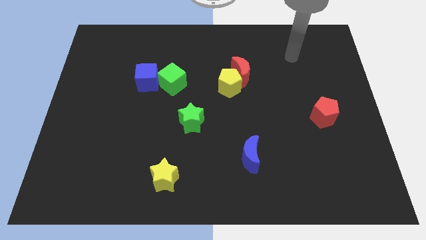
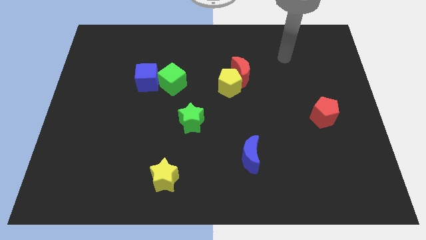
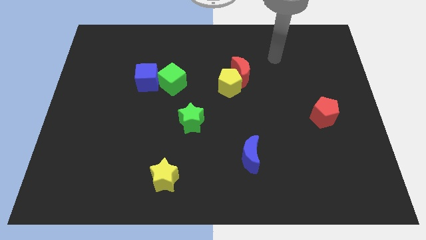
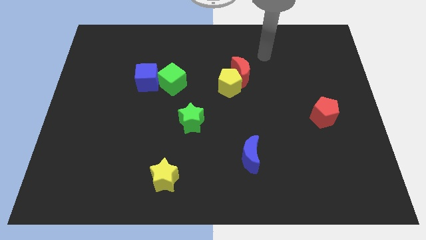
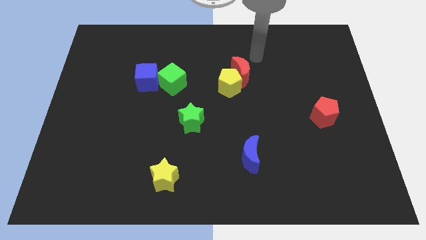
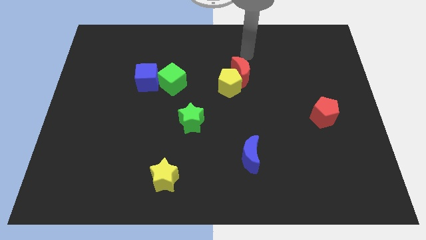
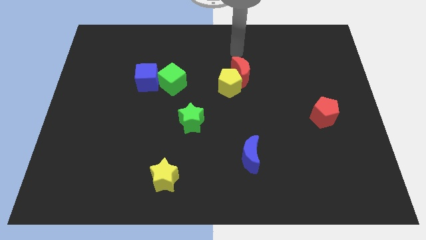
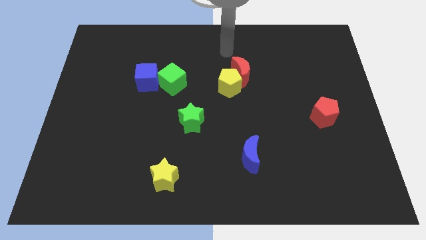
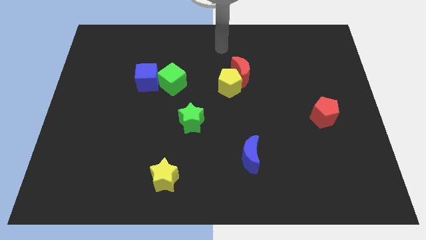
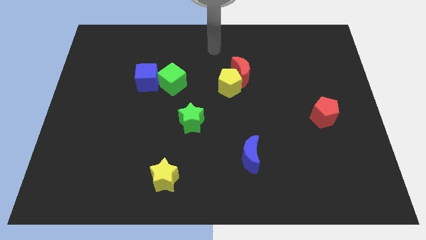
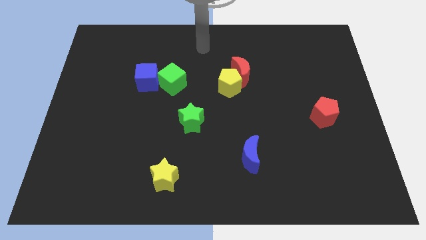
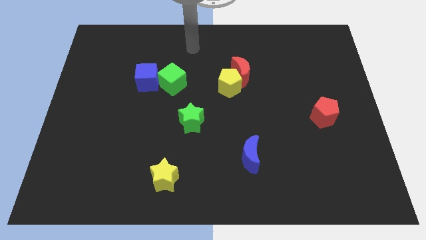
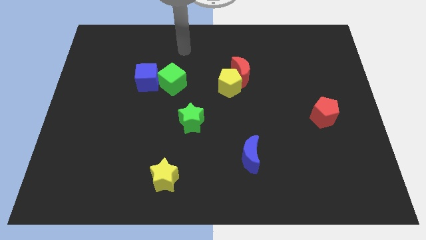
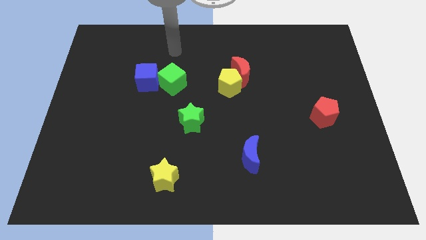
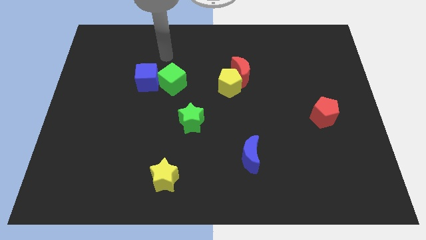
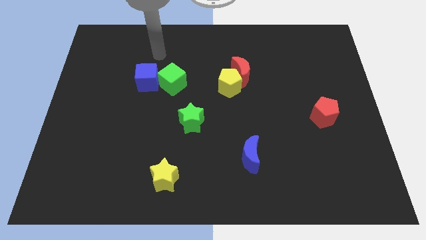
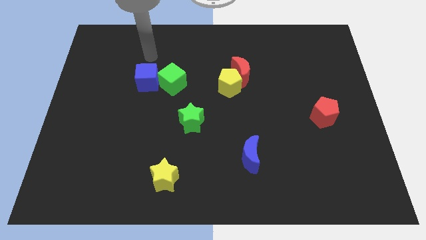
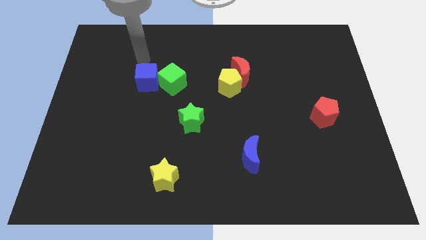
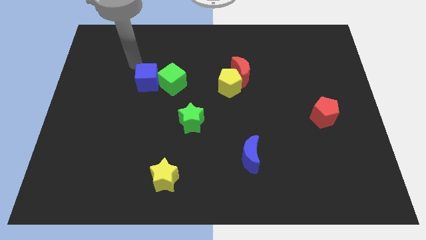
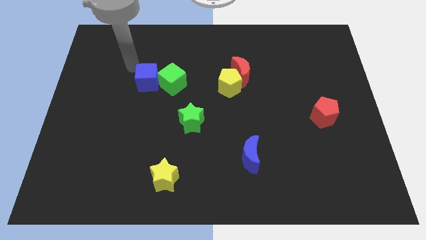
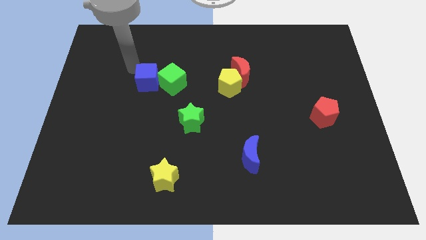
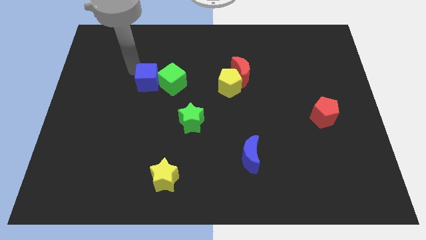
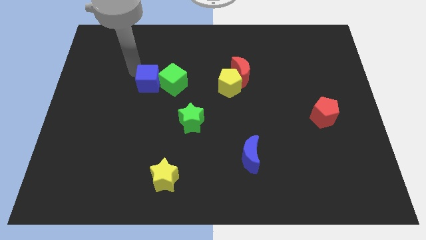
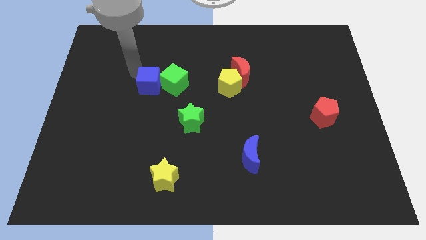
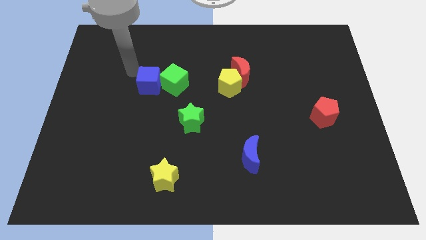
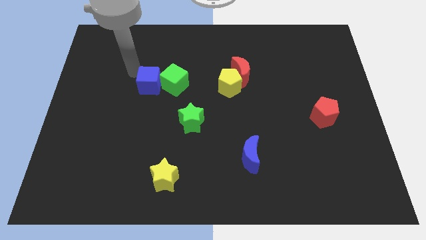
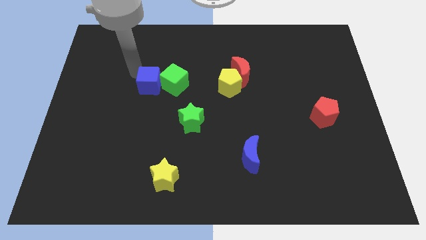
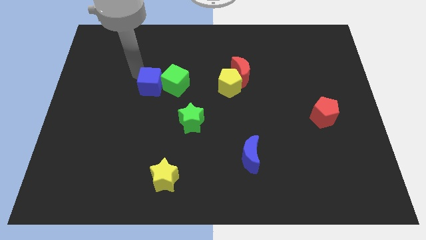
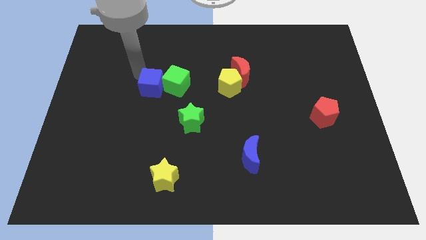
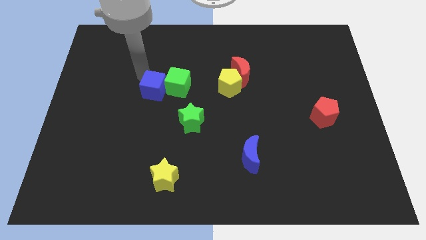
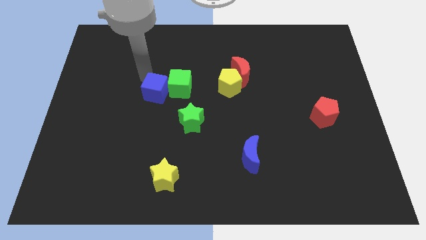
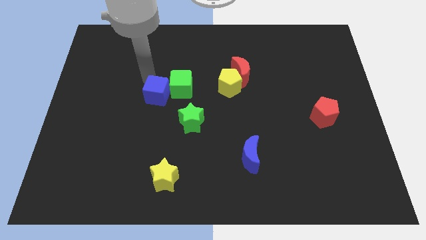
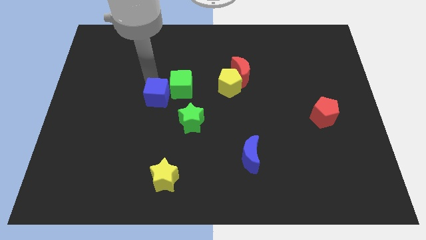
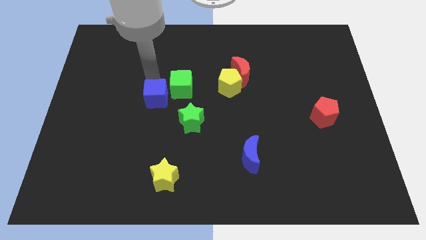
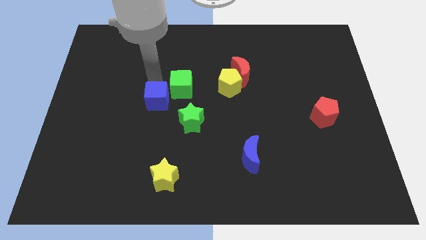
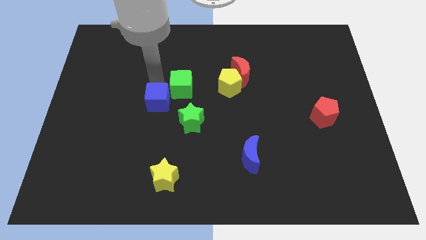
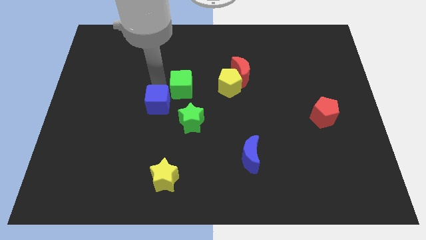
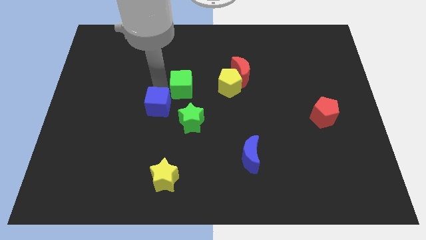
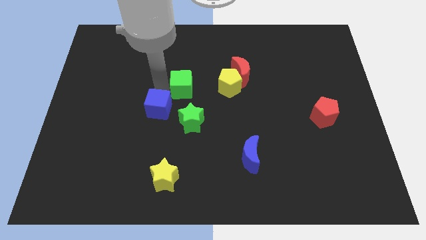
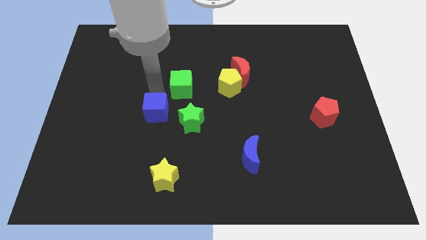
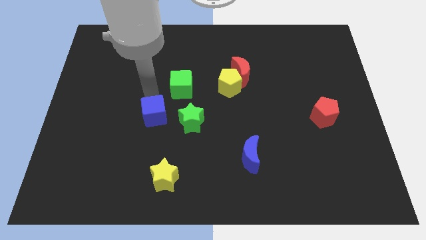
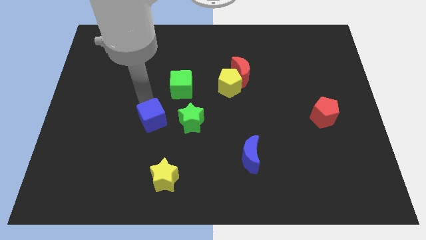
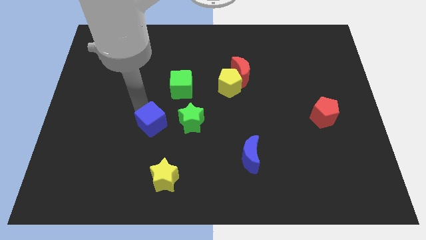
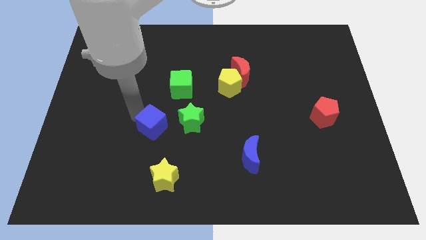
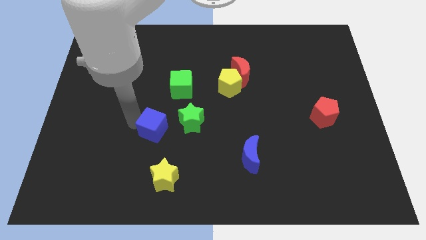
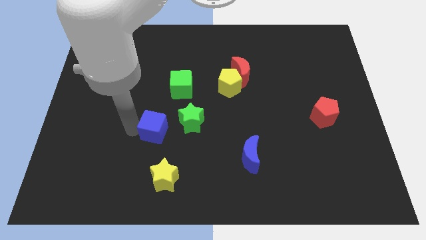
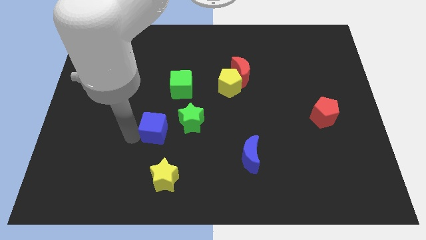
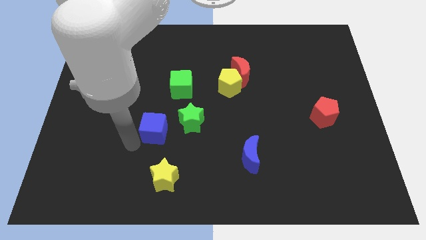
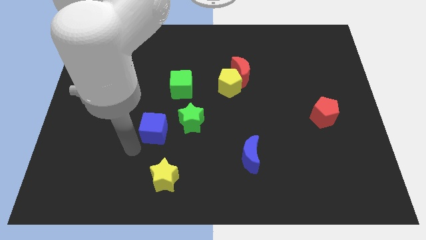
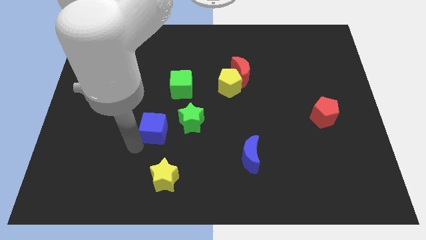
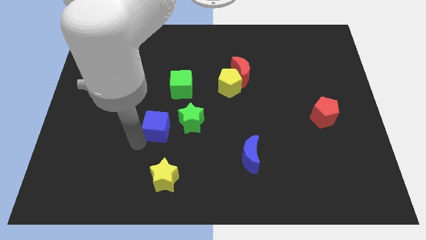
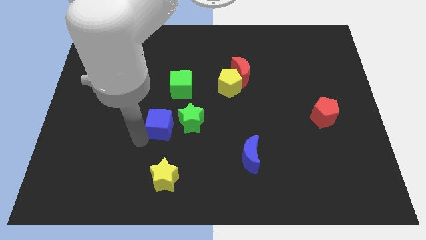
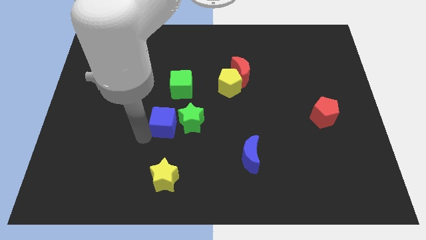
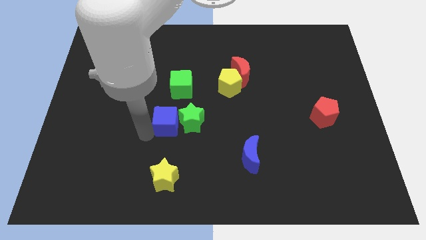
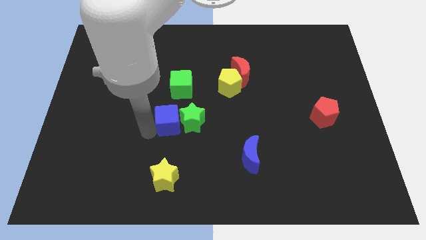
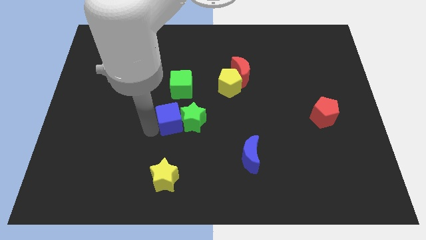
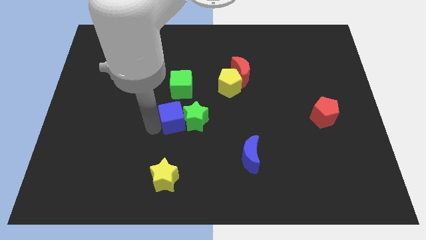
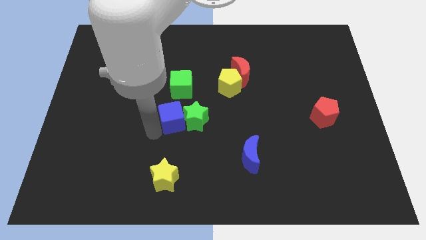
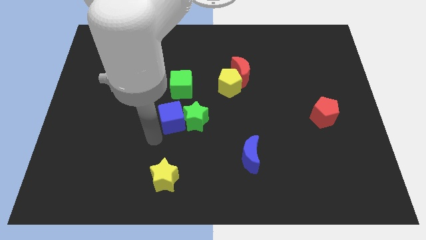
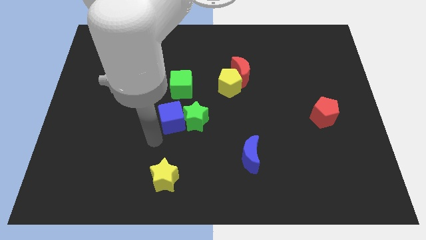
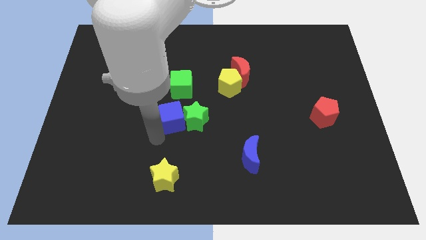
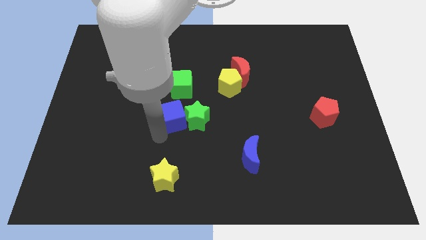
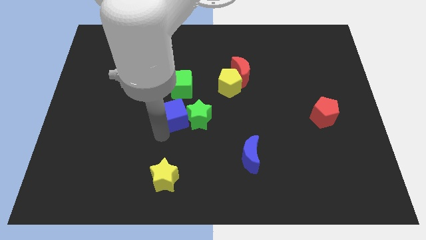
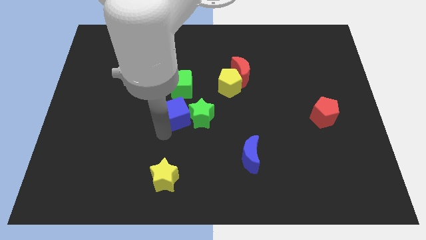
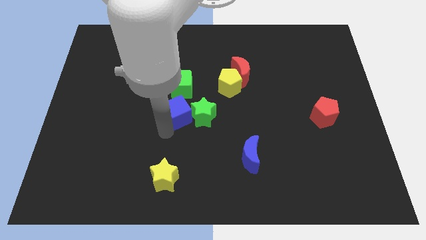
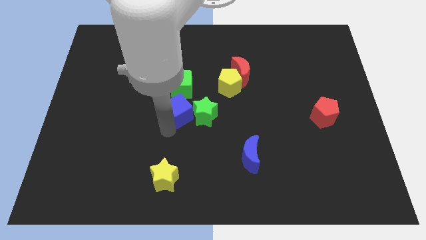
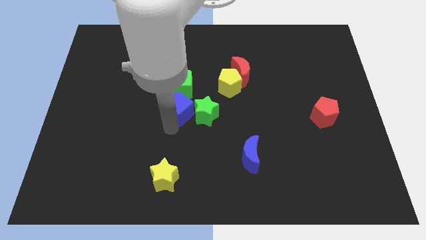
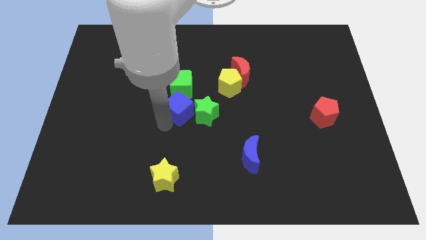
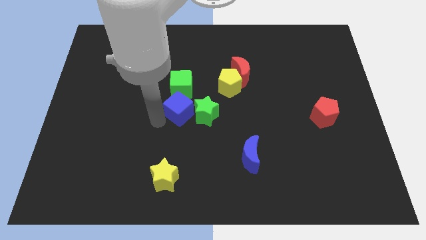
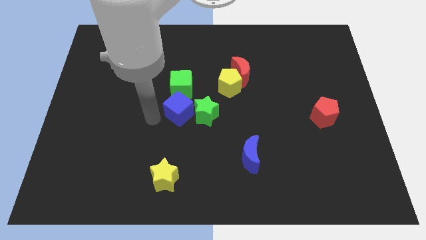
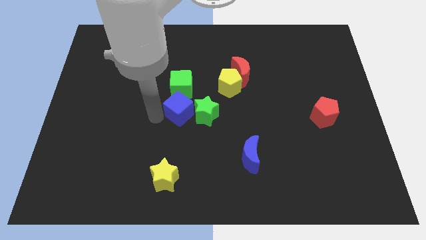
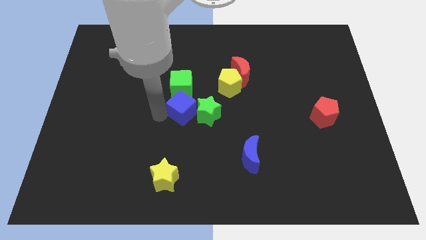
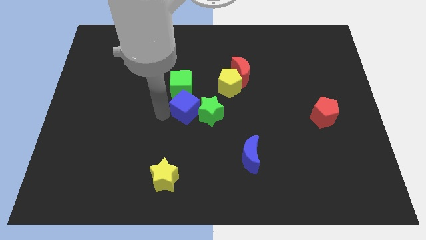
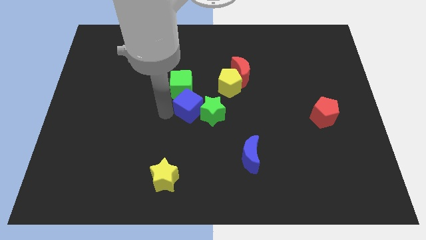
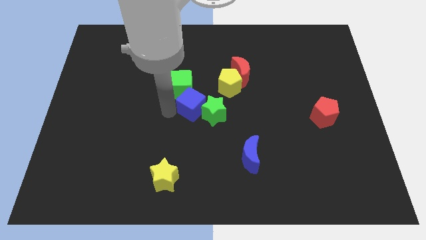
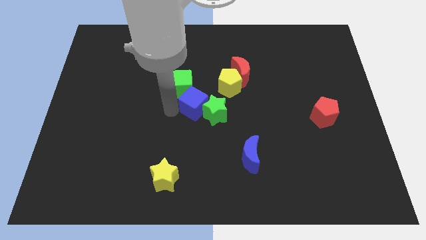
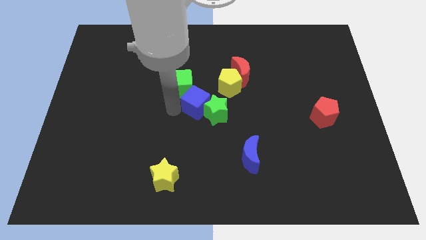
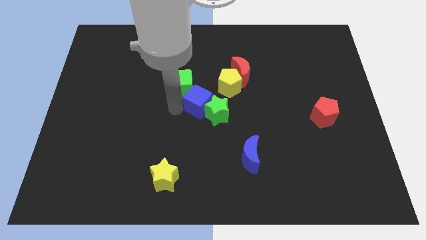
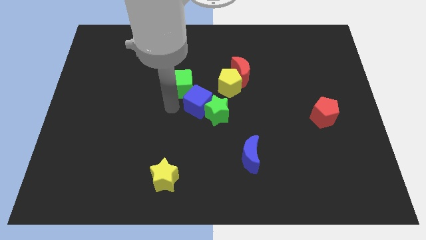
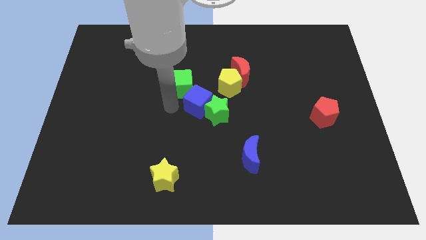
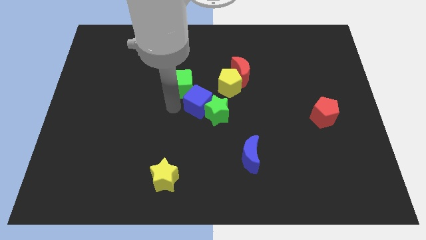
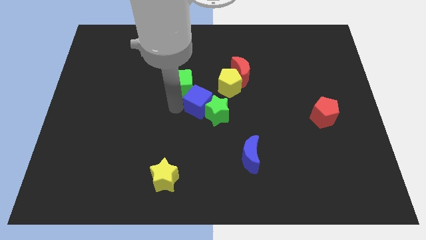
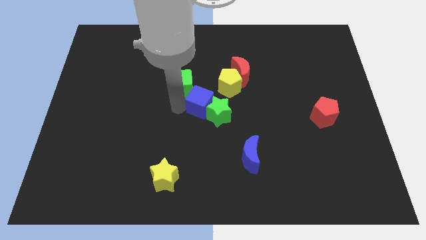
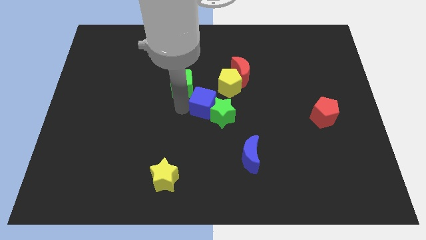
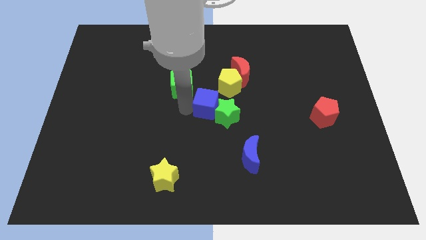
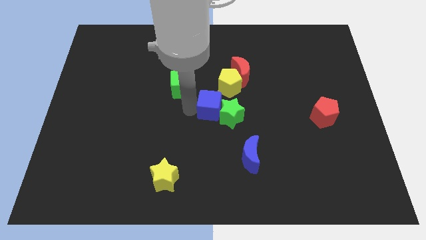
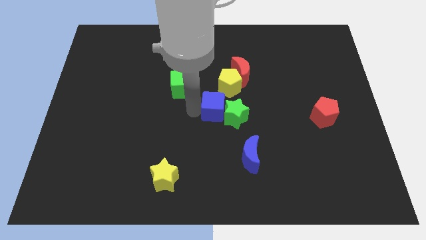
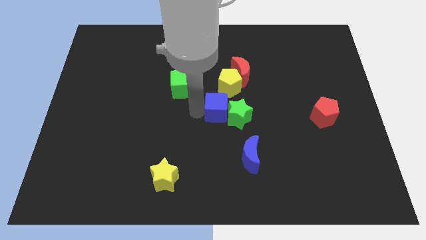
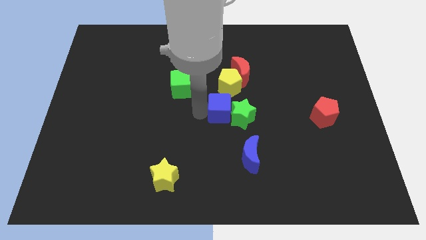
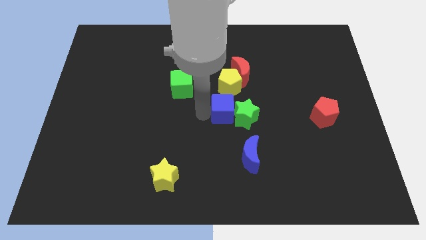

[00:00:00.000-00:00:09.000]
put the blue cube below the red moon
